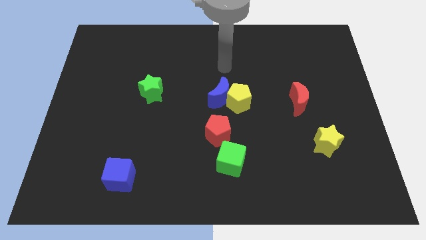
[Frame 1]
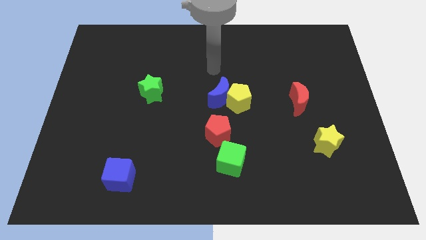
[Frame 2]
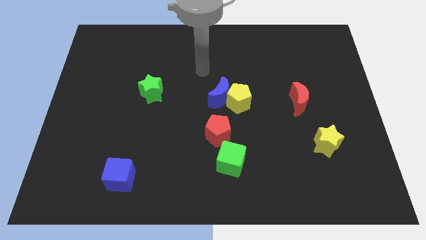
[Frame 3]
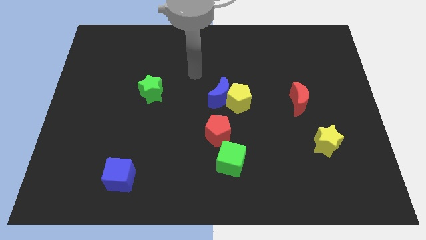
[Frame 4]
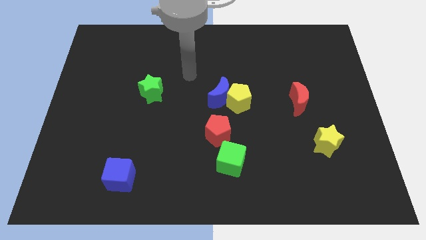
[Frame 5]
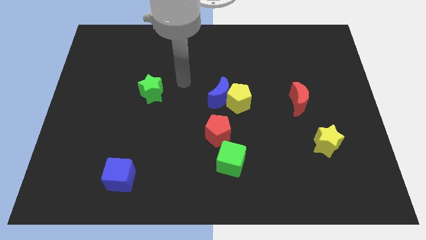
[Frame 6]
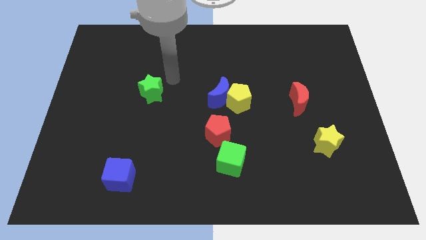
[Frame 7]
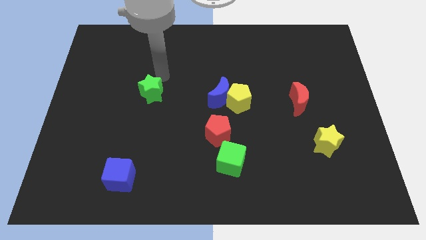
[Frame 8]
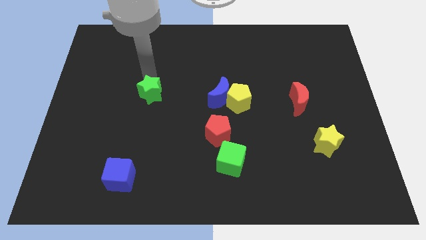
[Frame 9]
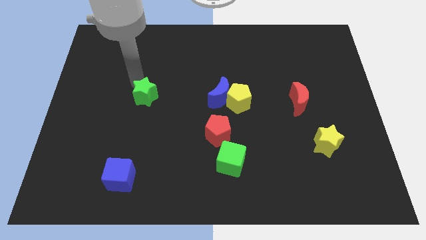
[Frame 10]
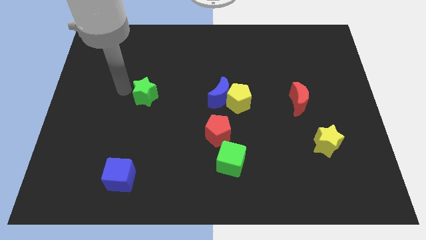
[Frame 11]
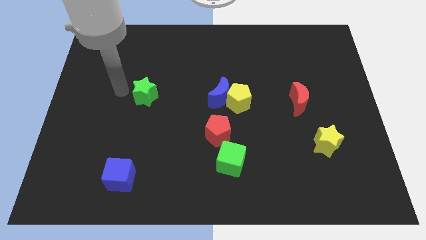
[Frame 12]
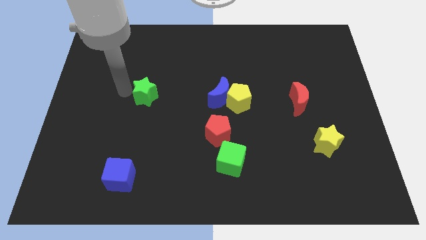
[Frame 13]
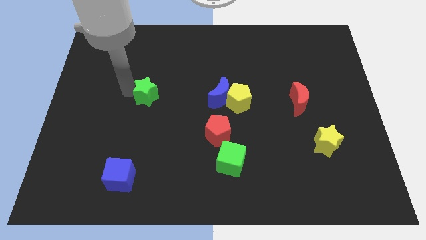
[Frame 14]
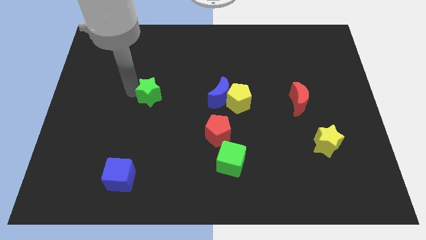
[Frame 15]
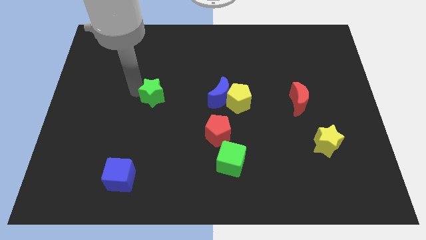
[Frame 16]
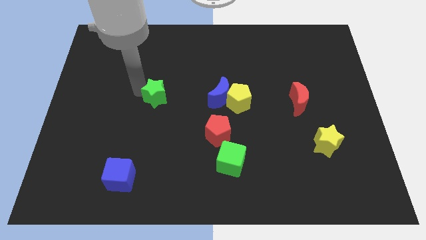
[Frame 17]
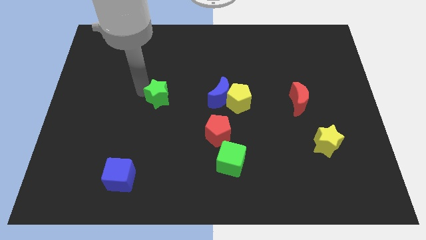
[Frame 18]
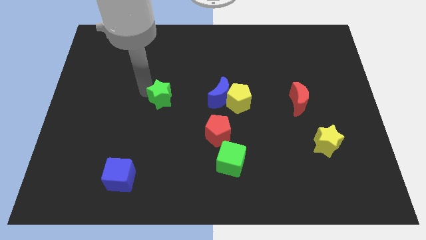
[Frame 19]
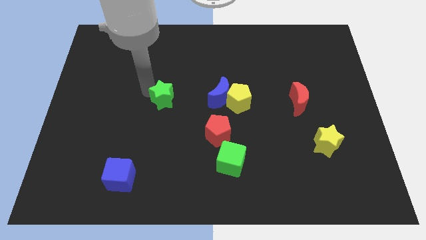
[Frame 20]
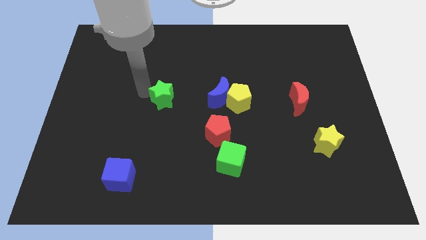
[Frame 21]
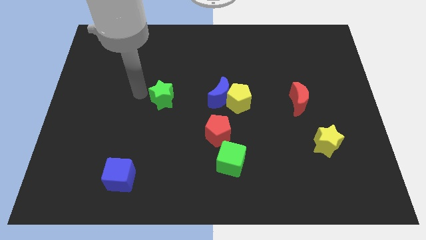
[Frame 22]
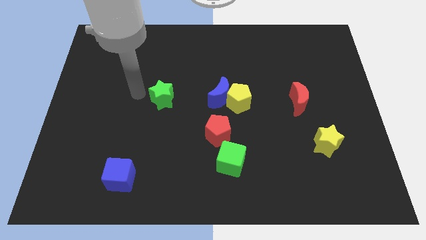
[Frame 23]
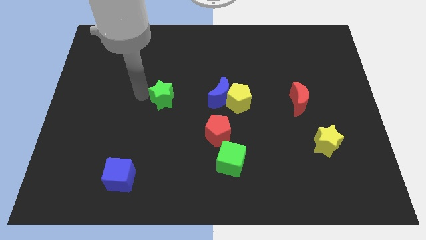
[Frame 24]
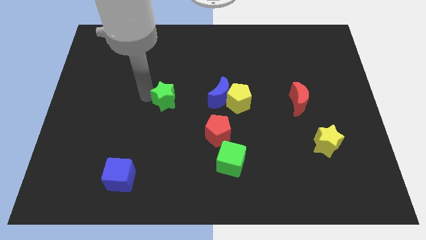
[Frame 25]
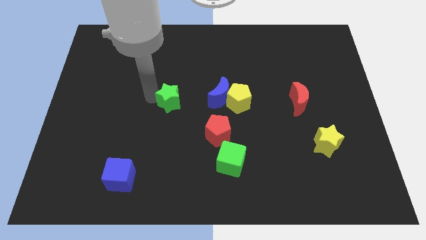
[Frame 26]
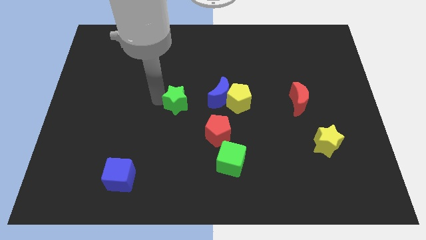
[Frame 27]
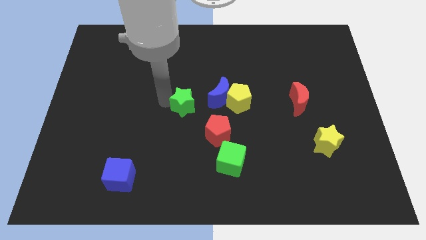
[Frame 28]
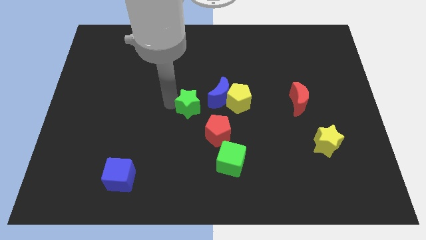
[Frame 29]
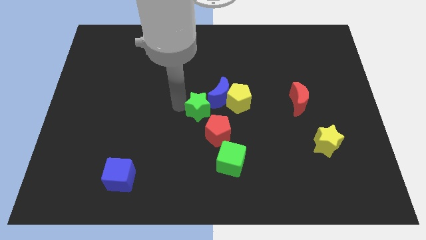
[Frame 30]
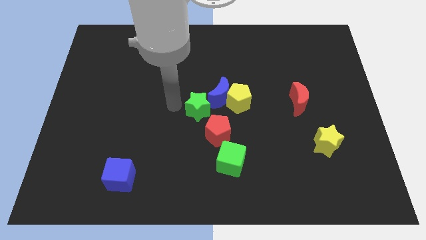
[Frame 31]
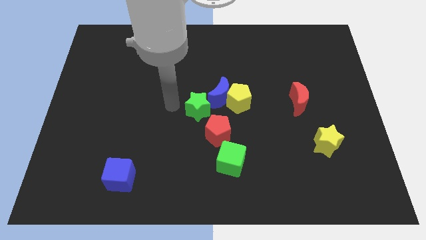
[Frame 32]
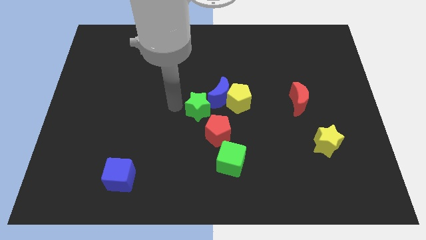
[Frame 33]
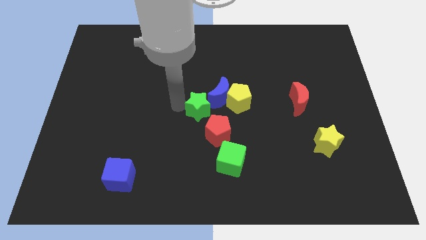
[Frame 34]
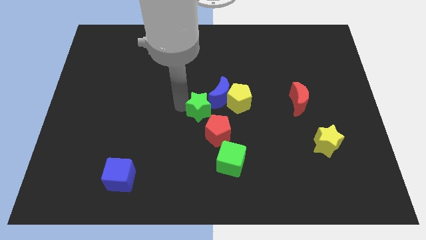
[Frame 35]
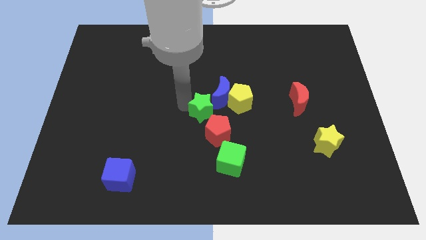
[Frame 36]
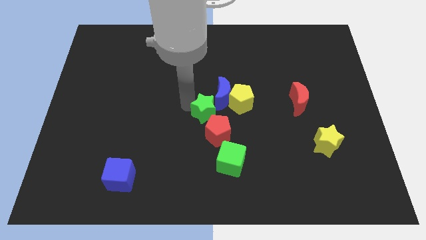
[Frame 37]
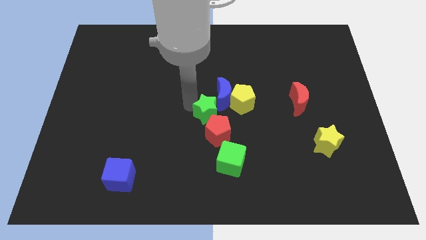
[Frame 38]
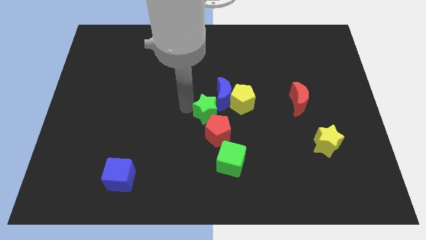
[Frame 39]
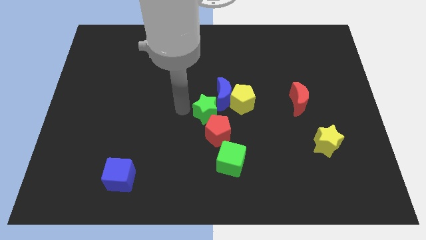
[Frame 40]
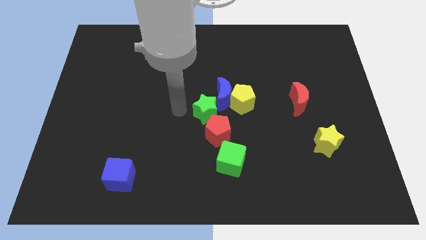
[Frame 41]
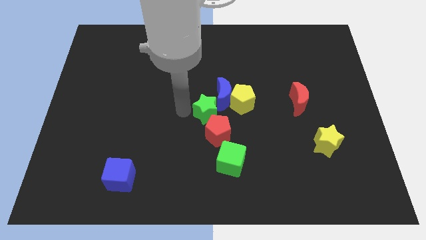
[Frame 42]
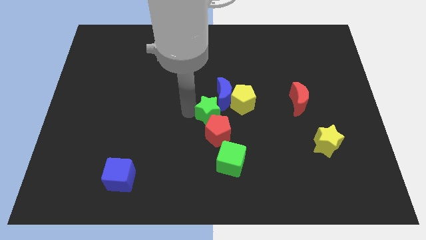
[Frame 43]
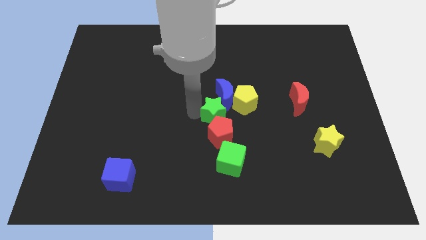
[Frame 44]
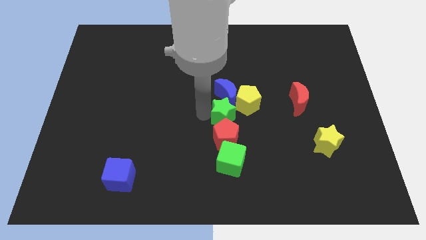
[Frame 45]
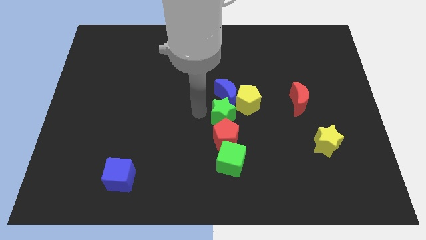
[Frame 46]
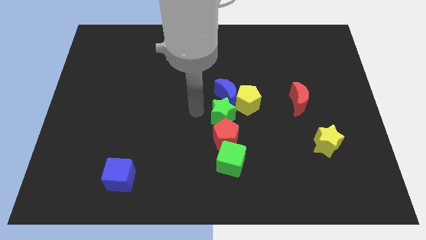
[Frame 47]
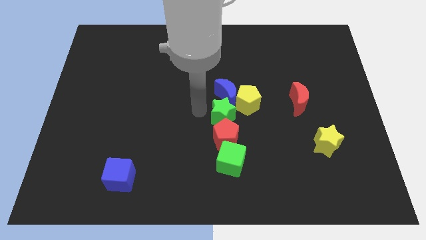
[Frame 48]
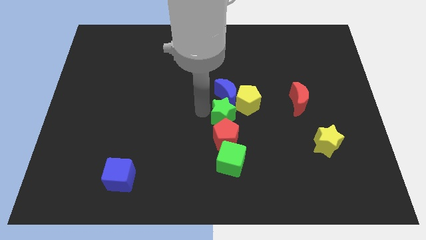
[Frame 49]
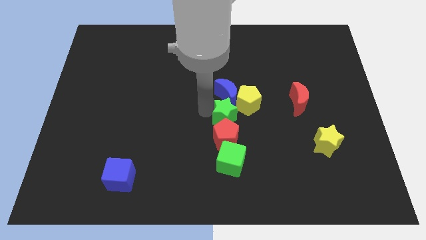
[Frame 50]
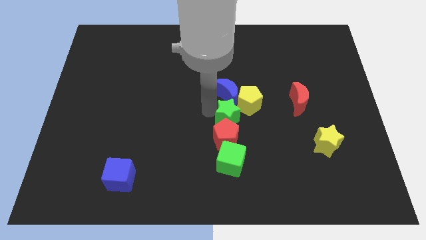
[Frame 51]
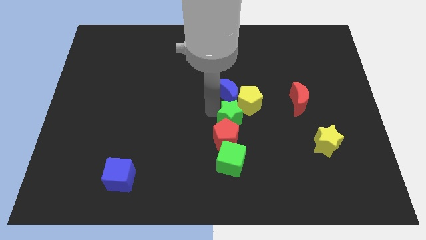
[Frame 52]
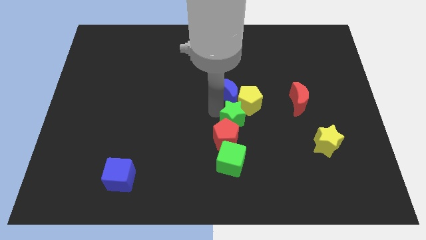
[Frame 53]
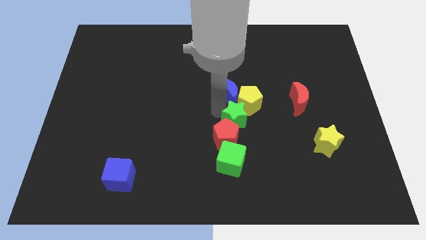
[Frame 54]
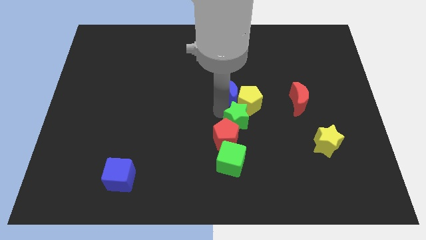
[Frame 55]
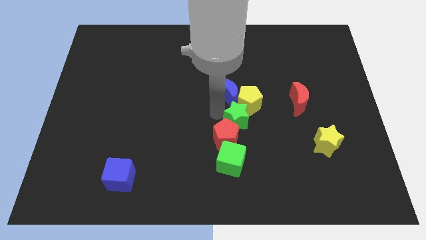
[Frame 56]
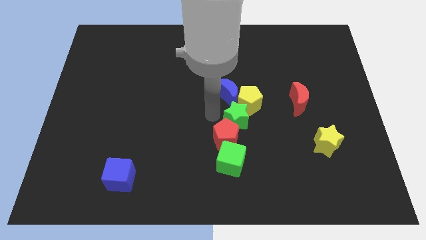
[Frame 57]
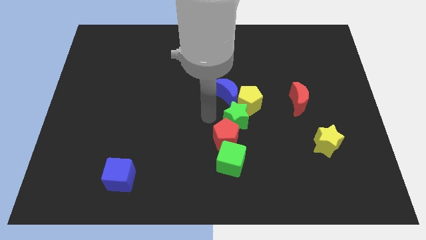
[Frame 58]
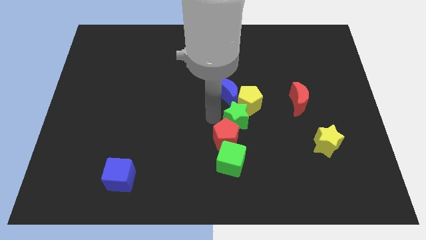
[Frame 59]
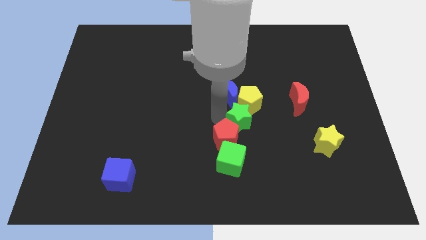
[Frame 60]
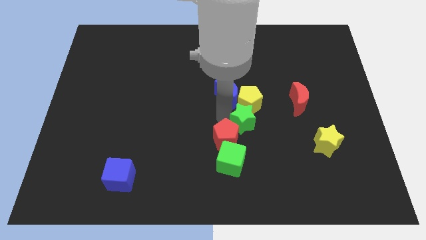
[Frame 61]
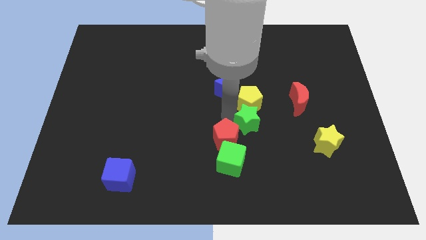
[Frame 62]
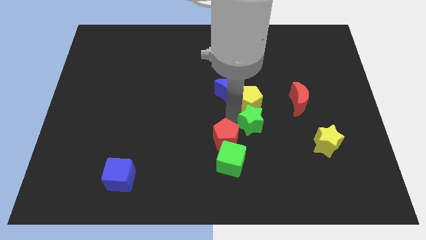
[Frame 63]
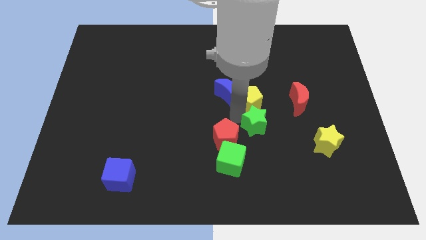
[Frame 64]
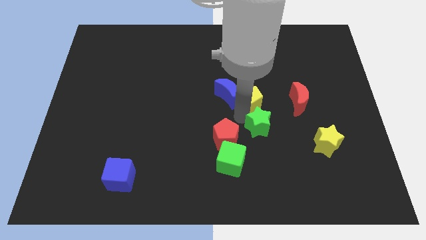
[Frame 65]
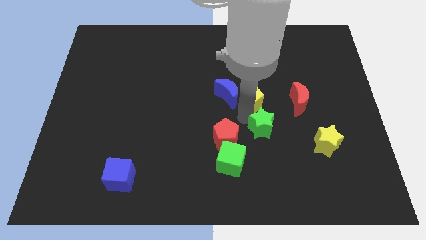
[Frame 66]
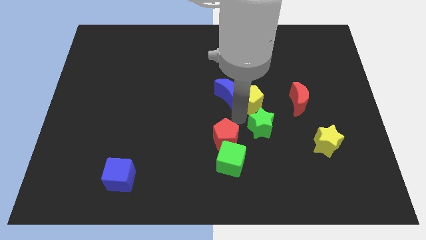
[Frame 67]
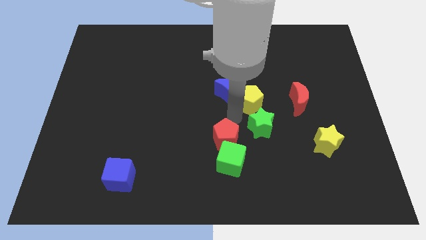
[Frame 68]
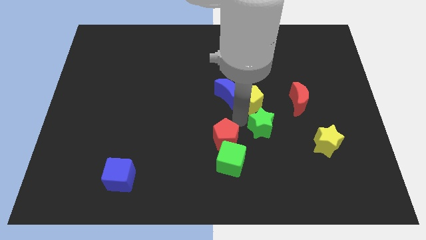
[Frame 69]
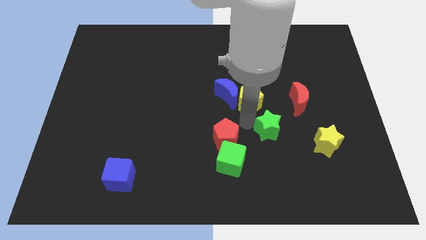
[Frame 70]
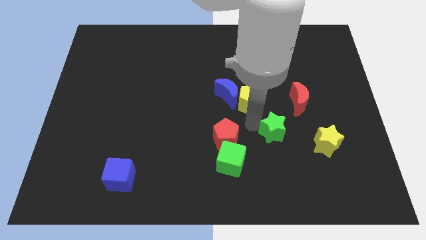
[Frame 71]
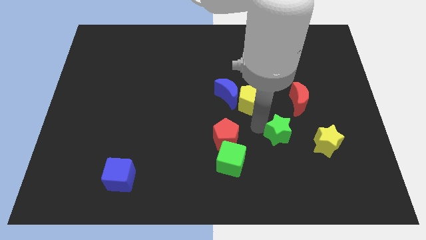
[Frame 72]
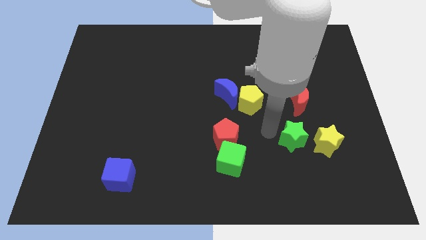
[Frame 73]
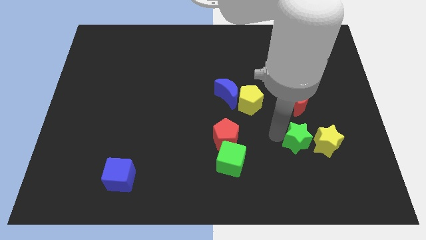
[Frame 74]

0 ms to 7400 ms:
move the green star towards the yellow star

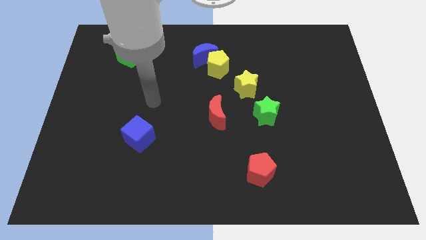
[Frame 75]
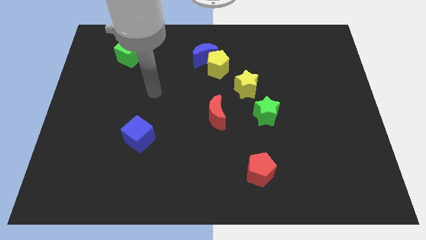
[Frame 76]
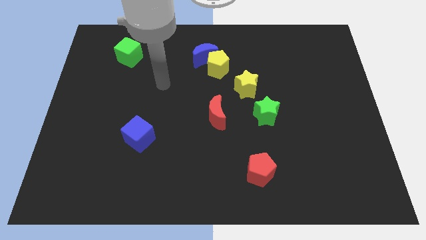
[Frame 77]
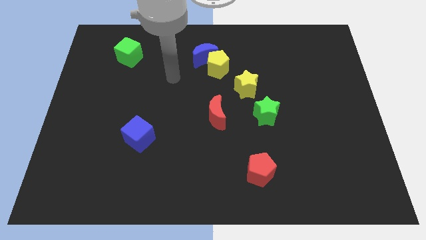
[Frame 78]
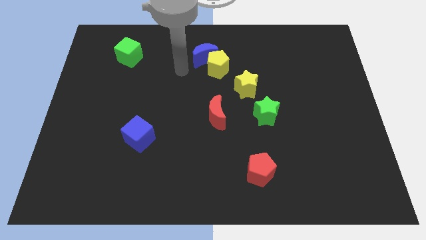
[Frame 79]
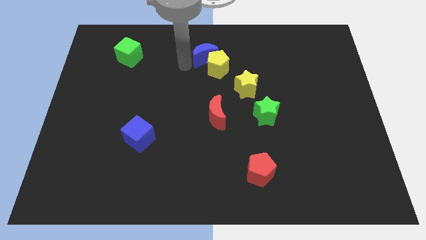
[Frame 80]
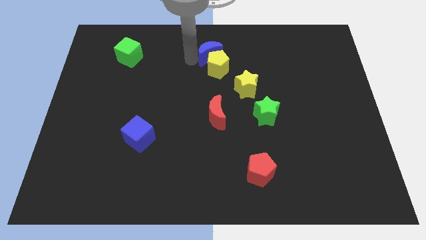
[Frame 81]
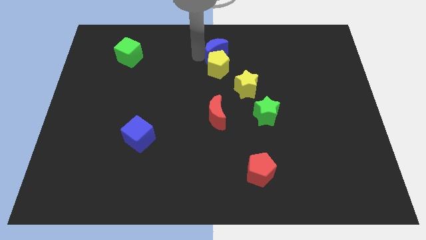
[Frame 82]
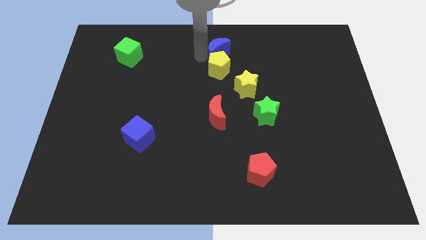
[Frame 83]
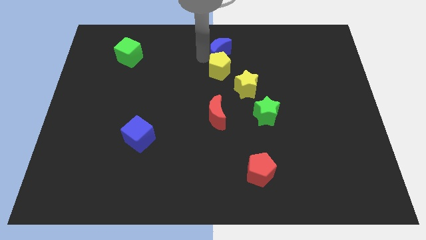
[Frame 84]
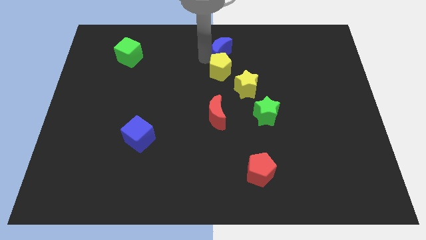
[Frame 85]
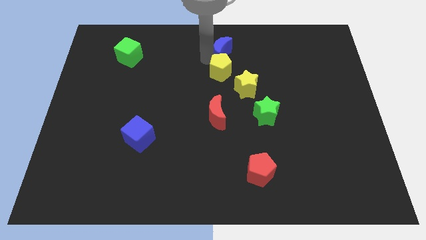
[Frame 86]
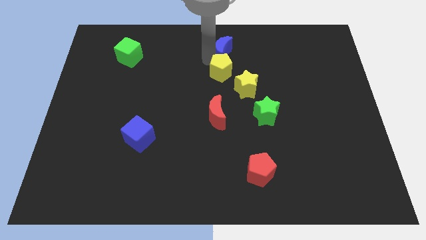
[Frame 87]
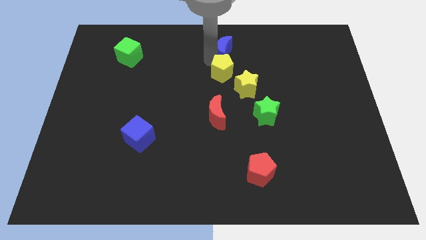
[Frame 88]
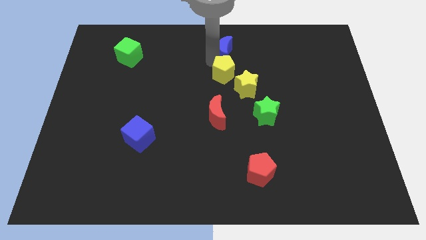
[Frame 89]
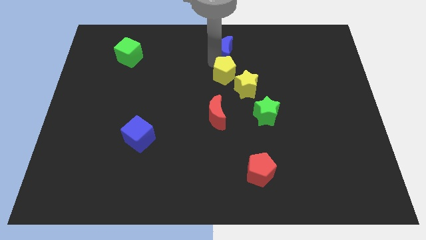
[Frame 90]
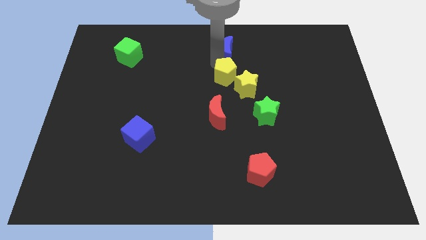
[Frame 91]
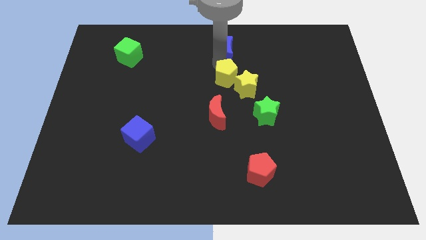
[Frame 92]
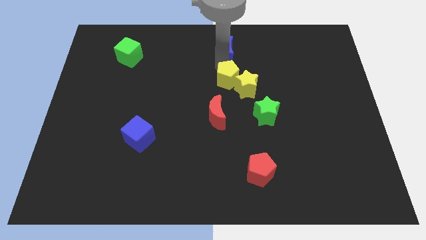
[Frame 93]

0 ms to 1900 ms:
put the yellow pentagon to the yellow star
